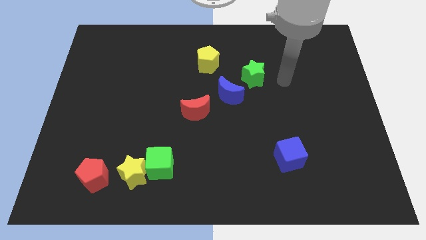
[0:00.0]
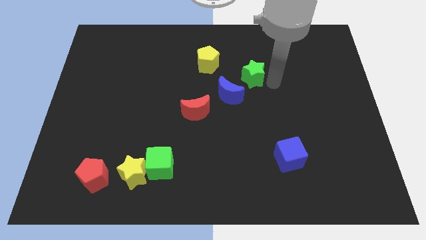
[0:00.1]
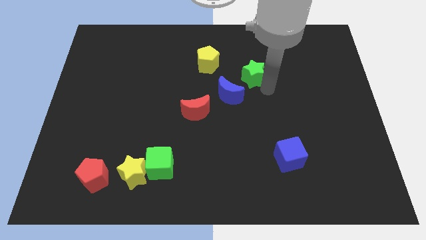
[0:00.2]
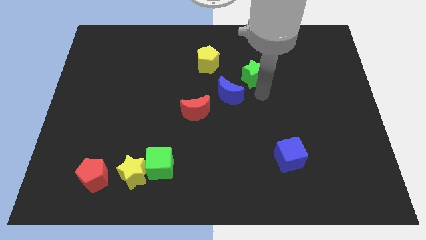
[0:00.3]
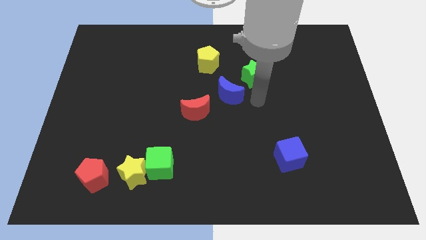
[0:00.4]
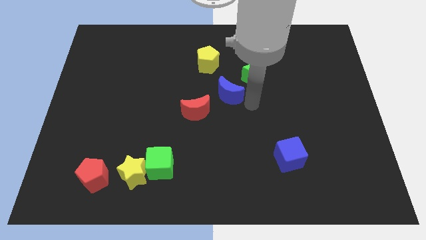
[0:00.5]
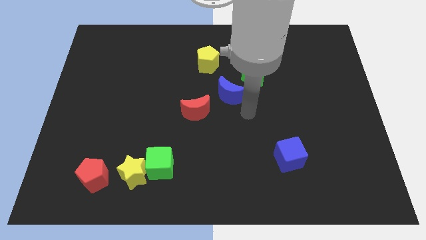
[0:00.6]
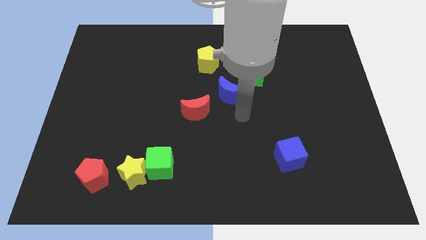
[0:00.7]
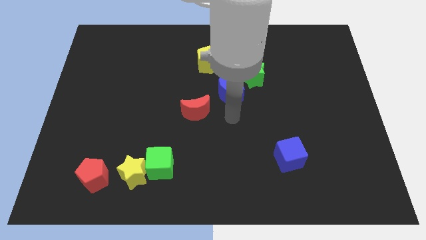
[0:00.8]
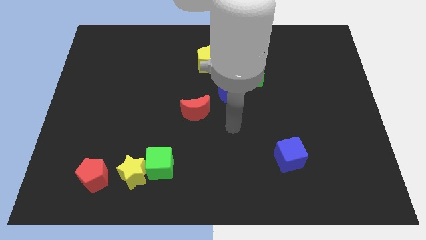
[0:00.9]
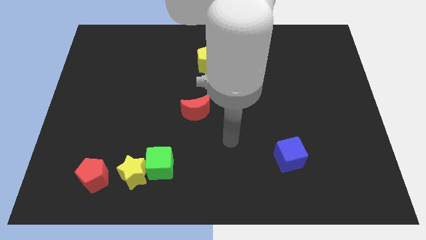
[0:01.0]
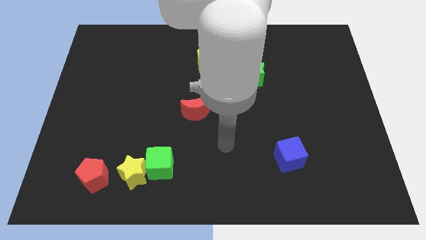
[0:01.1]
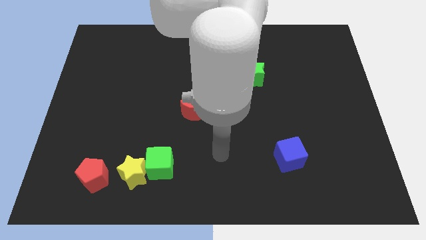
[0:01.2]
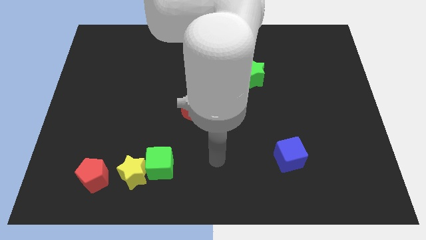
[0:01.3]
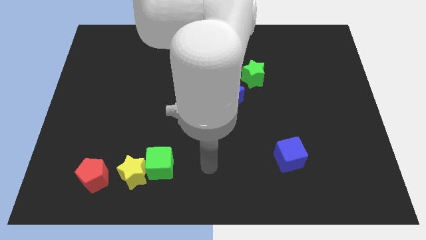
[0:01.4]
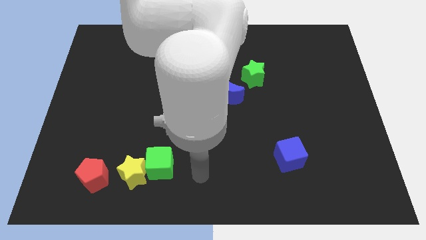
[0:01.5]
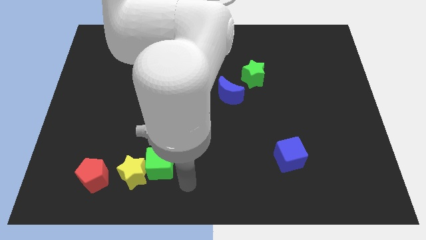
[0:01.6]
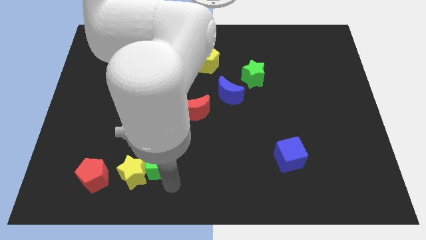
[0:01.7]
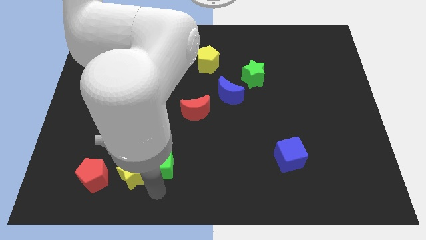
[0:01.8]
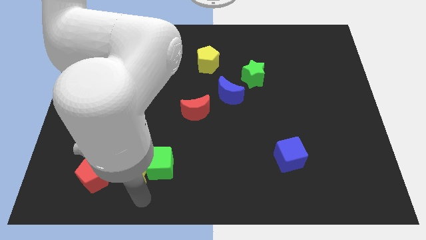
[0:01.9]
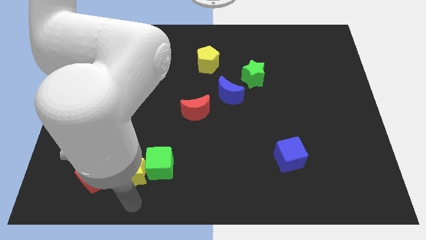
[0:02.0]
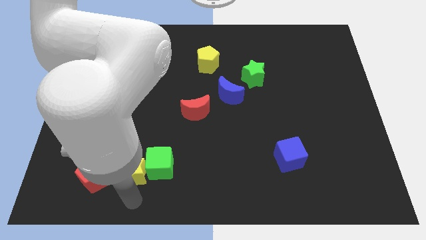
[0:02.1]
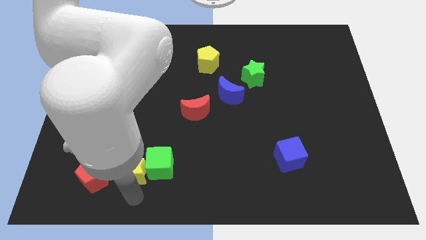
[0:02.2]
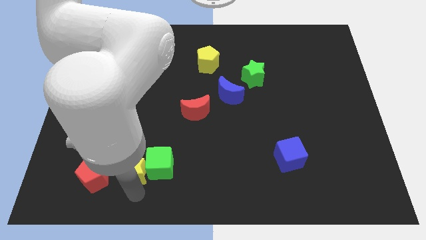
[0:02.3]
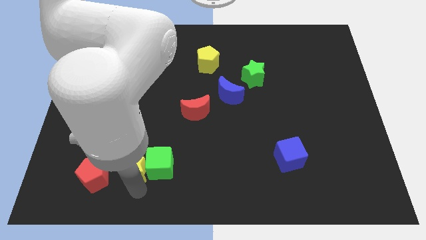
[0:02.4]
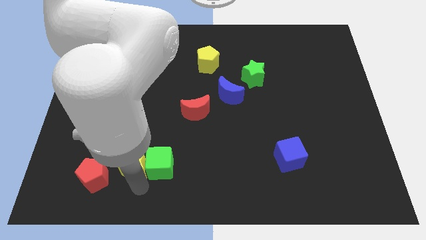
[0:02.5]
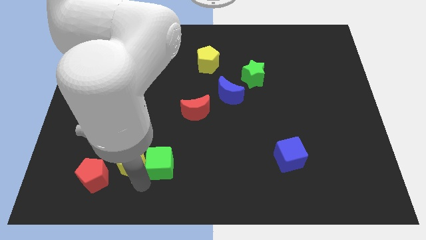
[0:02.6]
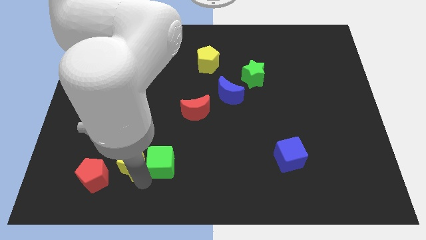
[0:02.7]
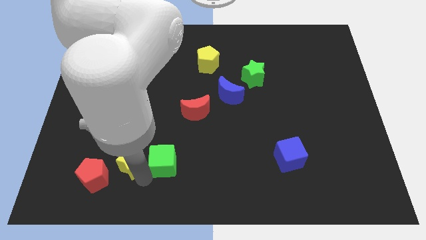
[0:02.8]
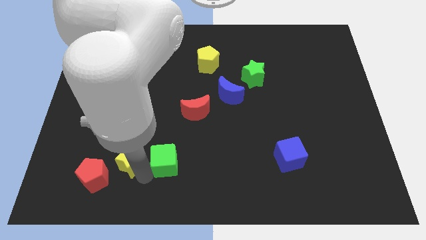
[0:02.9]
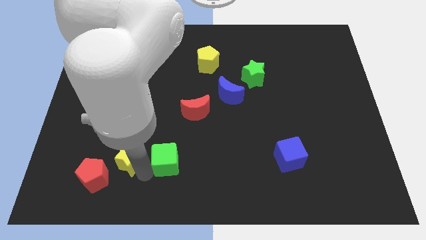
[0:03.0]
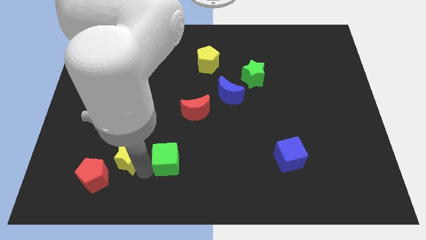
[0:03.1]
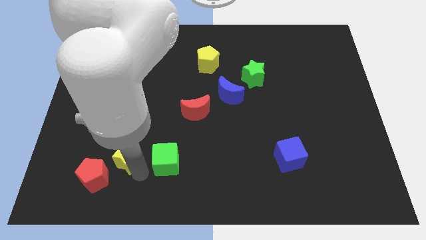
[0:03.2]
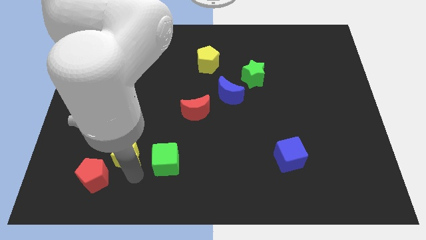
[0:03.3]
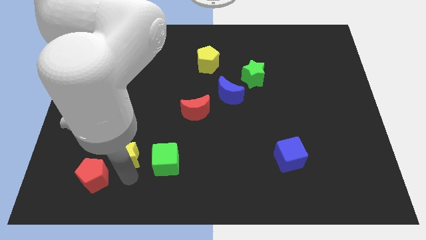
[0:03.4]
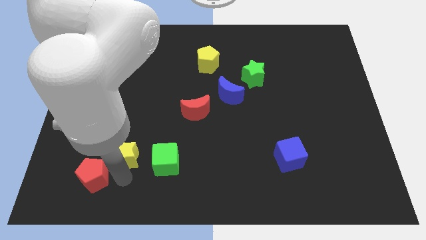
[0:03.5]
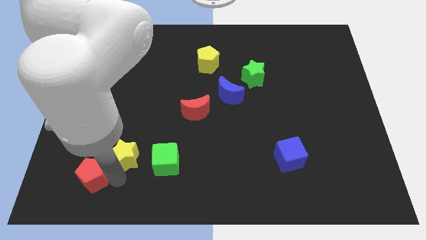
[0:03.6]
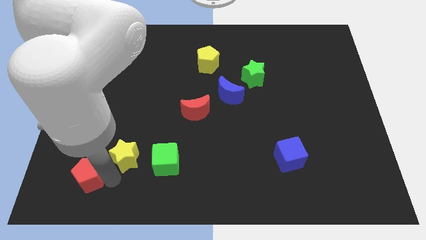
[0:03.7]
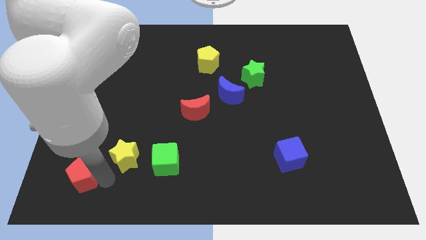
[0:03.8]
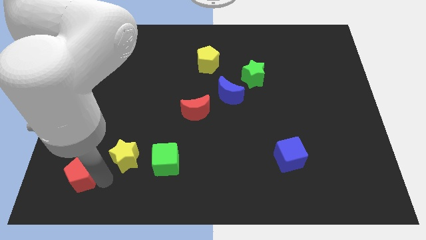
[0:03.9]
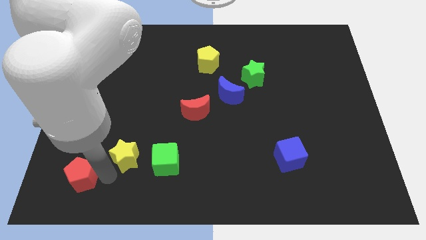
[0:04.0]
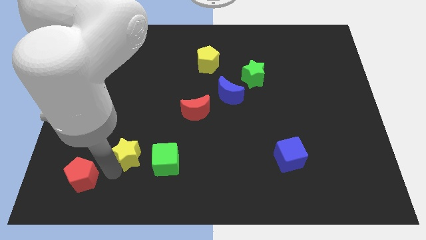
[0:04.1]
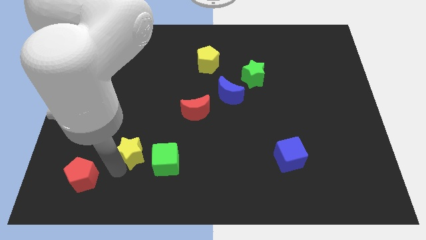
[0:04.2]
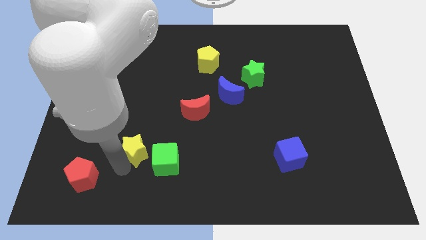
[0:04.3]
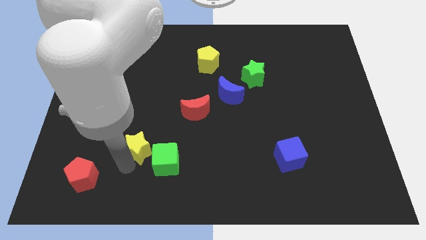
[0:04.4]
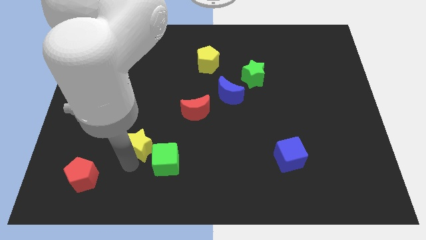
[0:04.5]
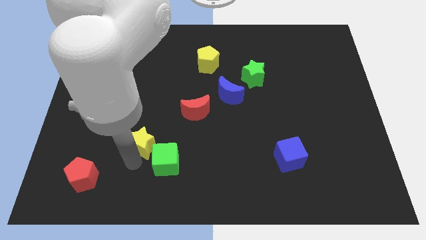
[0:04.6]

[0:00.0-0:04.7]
push the yellow star up slightly

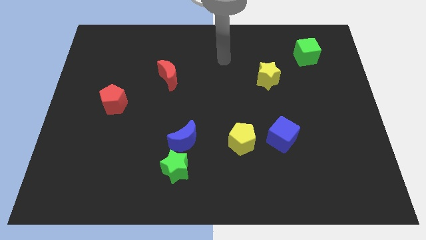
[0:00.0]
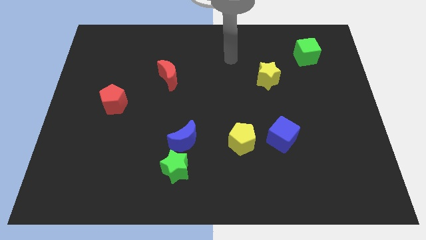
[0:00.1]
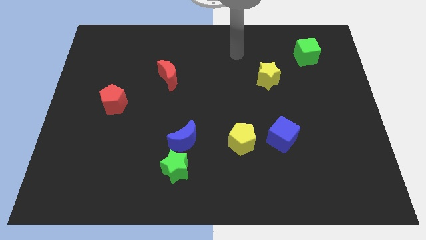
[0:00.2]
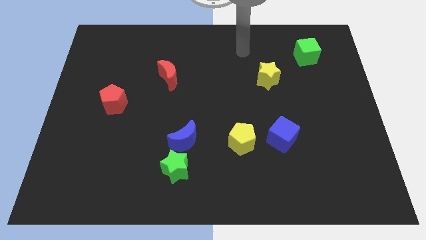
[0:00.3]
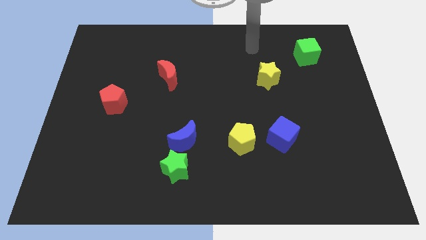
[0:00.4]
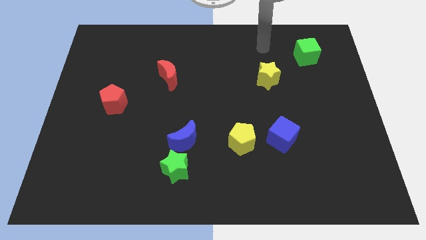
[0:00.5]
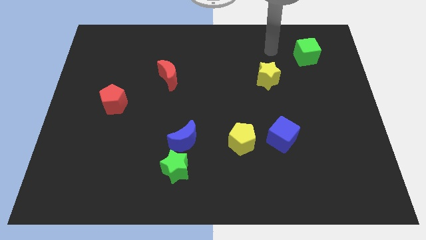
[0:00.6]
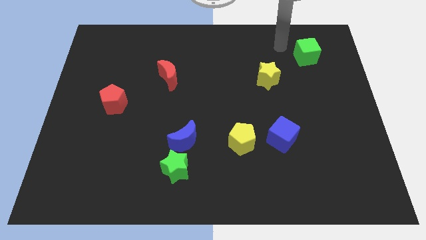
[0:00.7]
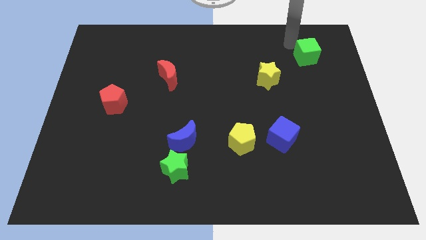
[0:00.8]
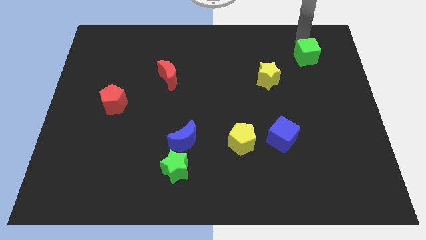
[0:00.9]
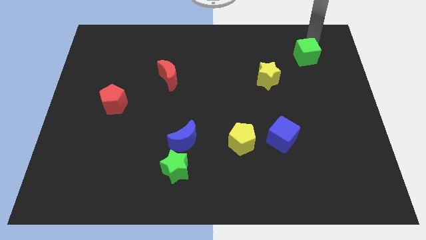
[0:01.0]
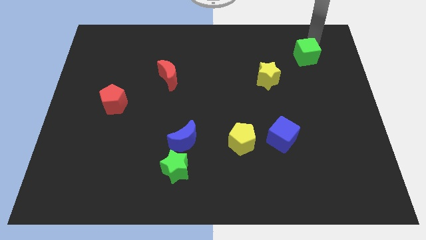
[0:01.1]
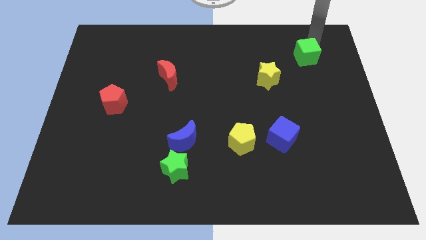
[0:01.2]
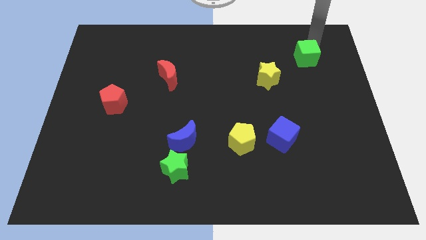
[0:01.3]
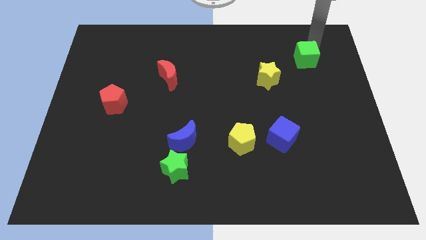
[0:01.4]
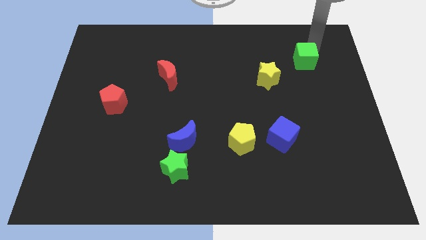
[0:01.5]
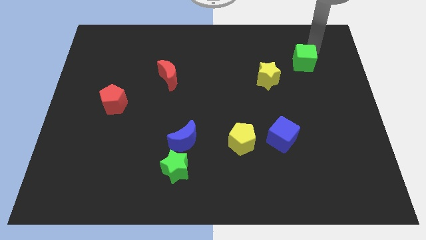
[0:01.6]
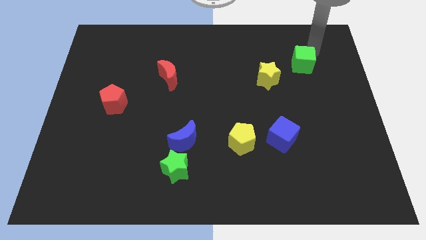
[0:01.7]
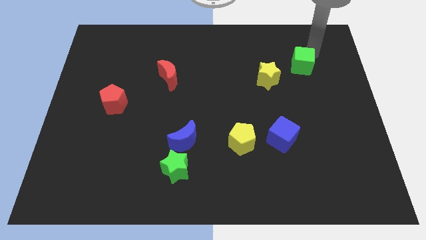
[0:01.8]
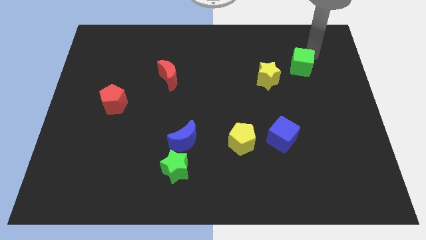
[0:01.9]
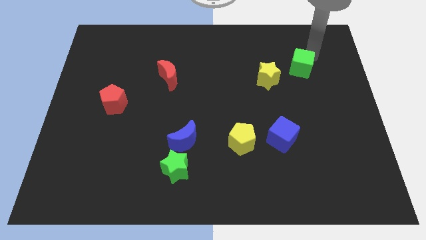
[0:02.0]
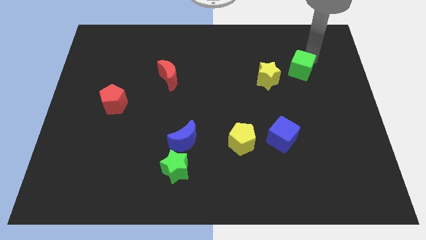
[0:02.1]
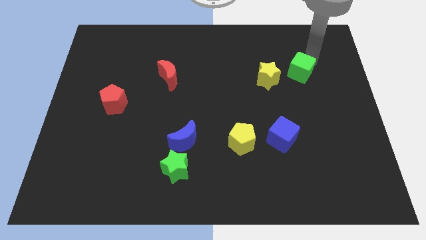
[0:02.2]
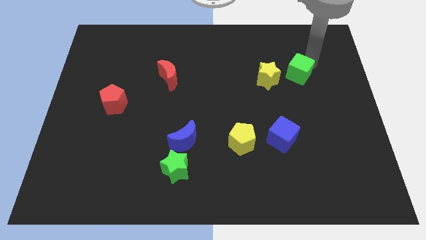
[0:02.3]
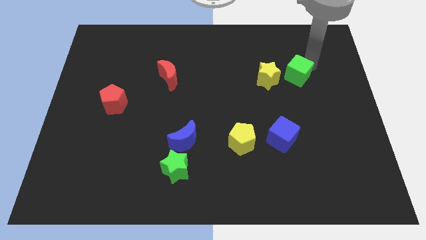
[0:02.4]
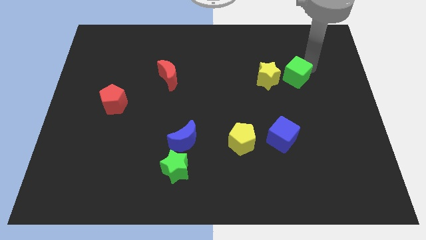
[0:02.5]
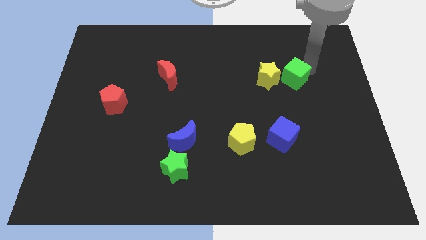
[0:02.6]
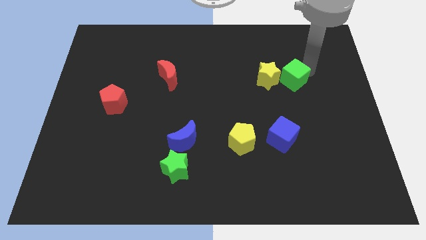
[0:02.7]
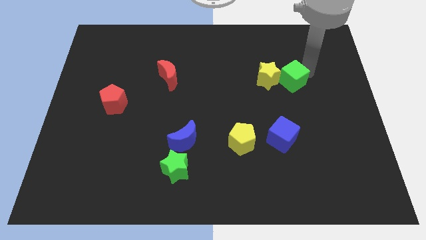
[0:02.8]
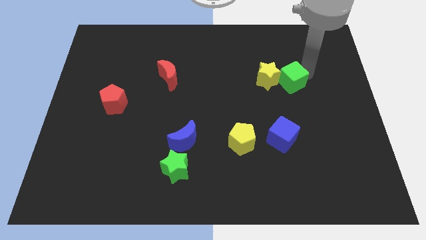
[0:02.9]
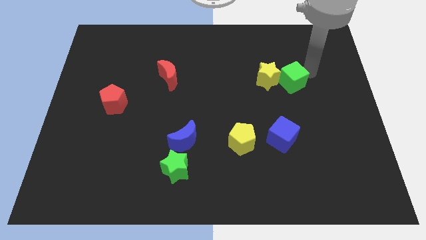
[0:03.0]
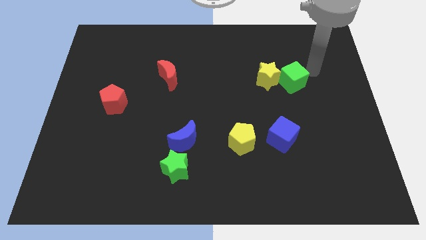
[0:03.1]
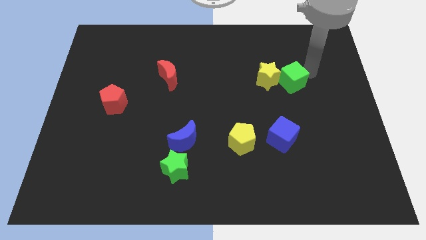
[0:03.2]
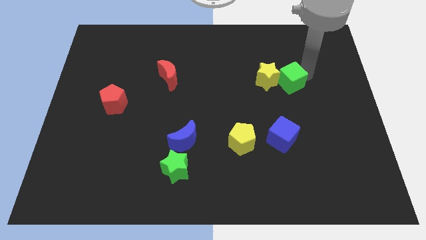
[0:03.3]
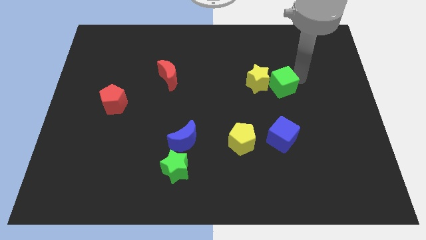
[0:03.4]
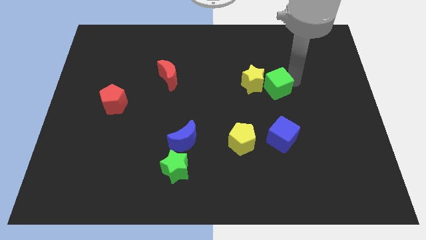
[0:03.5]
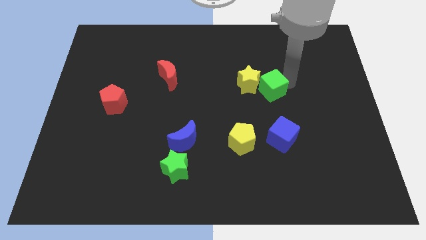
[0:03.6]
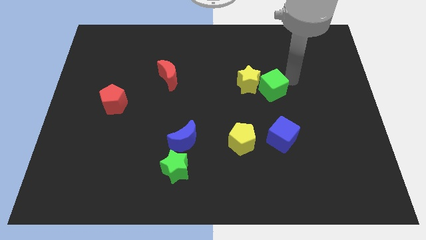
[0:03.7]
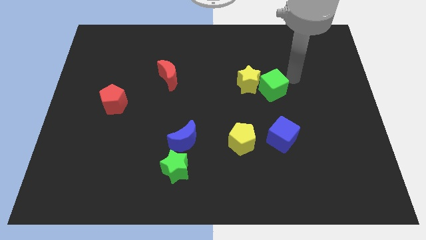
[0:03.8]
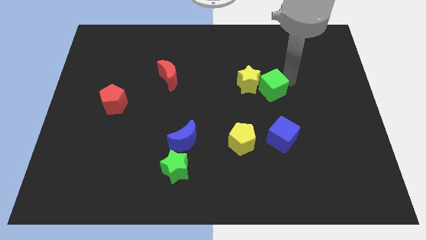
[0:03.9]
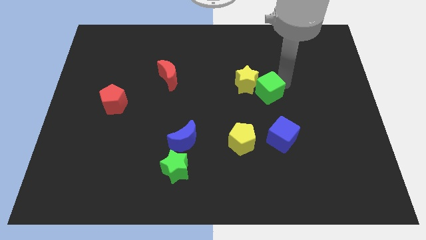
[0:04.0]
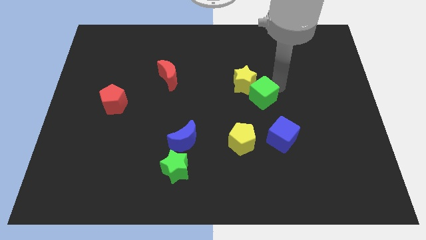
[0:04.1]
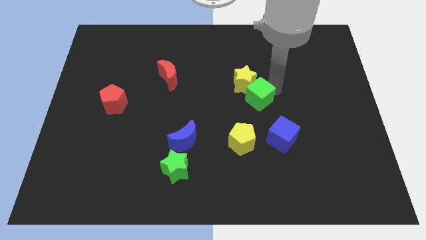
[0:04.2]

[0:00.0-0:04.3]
move the green cube diagonally downwards and left
